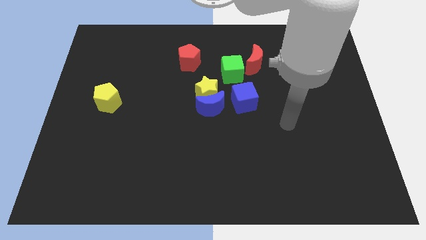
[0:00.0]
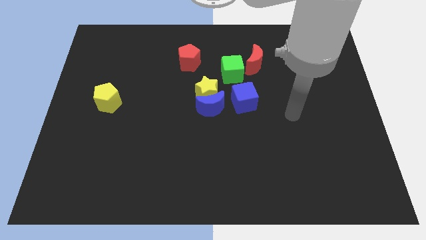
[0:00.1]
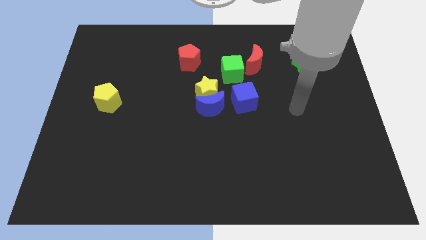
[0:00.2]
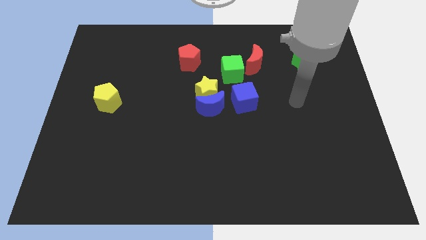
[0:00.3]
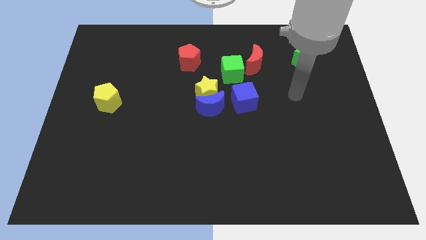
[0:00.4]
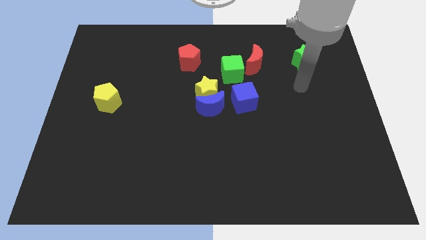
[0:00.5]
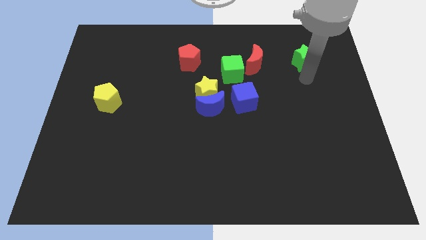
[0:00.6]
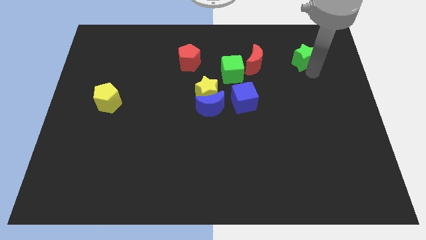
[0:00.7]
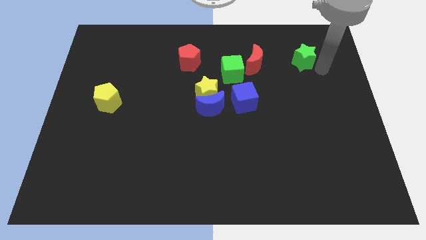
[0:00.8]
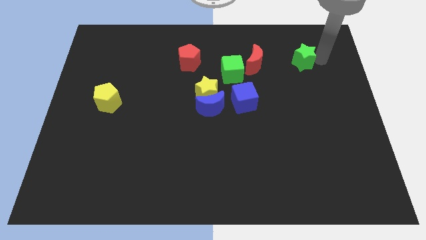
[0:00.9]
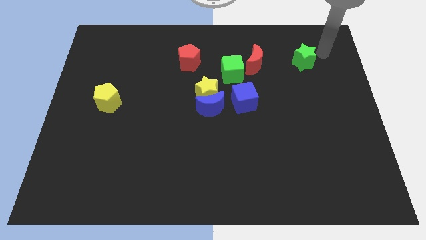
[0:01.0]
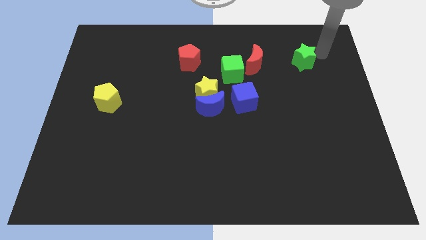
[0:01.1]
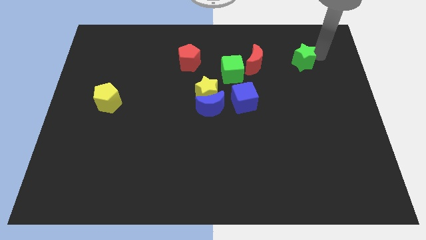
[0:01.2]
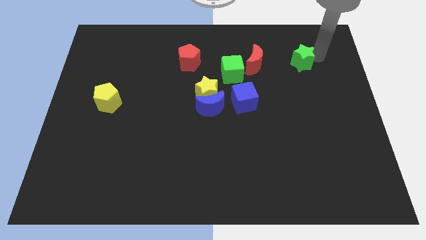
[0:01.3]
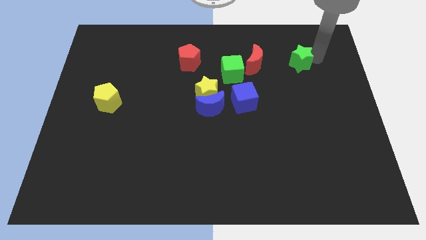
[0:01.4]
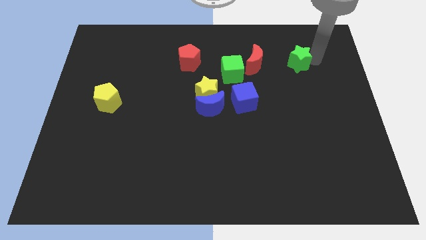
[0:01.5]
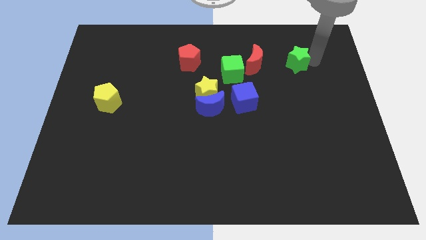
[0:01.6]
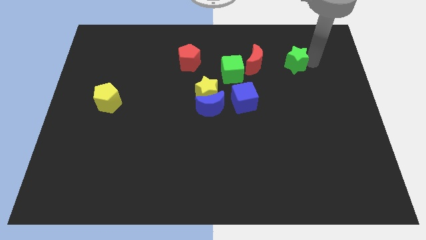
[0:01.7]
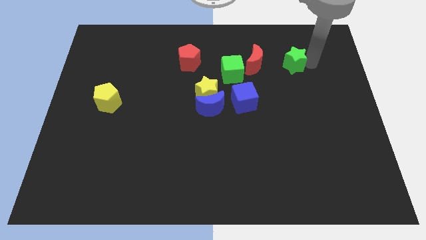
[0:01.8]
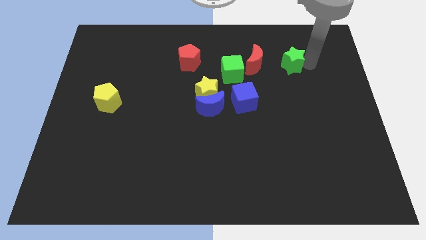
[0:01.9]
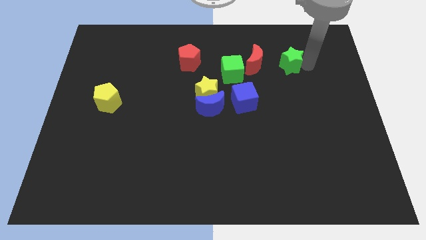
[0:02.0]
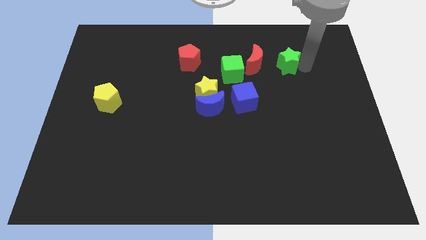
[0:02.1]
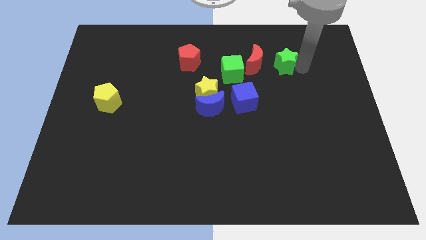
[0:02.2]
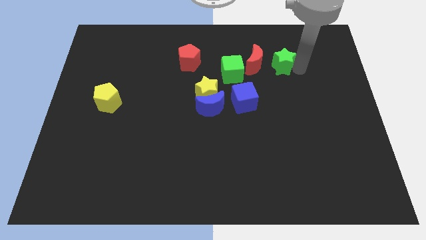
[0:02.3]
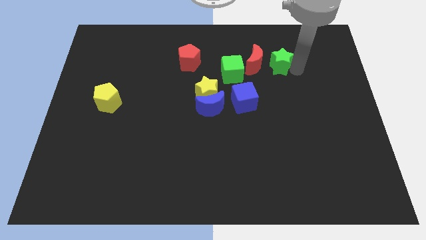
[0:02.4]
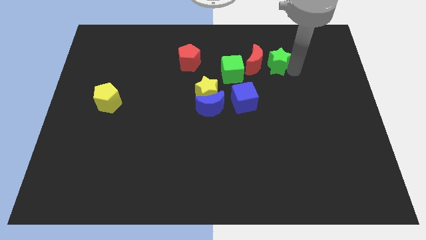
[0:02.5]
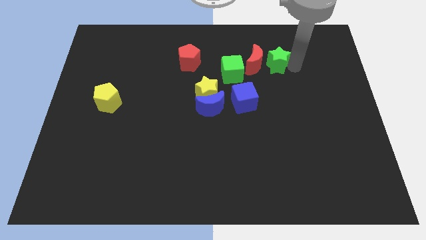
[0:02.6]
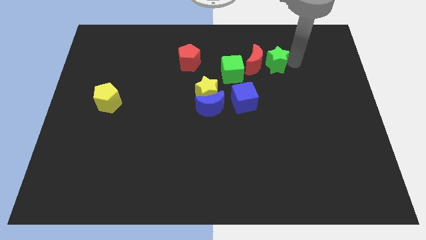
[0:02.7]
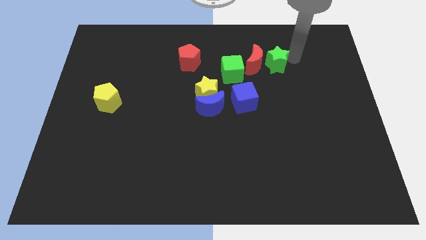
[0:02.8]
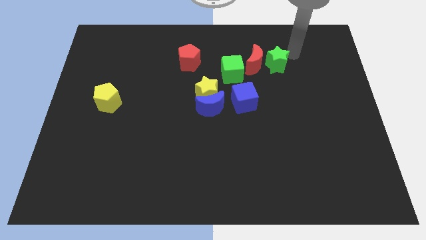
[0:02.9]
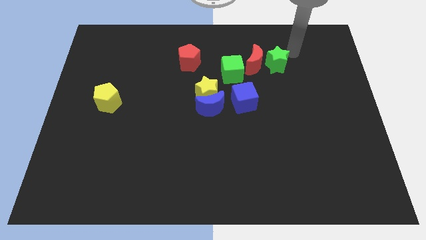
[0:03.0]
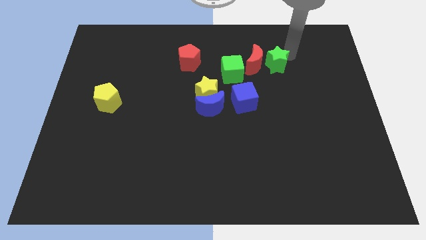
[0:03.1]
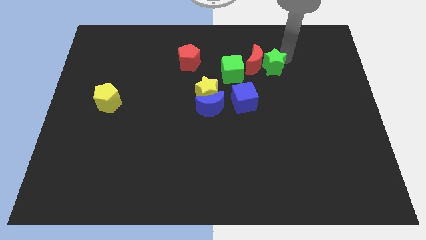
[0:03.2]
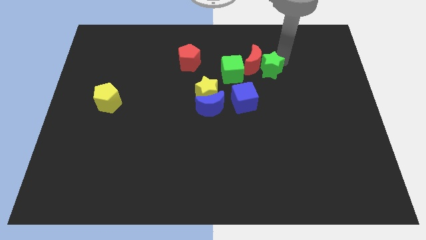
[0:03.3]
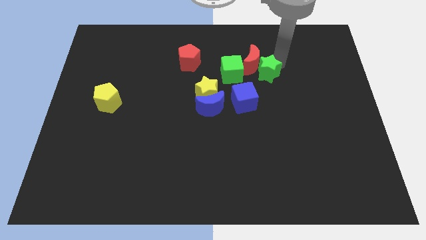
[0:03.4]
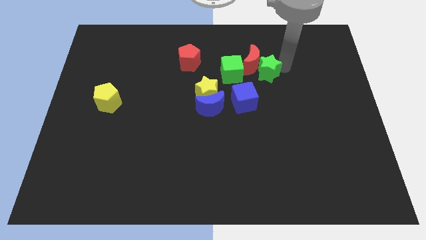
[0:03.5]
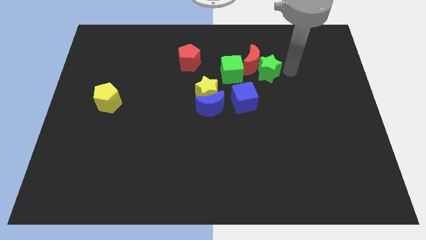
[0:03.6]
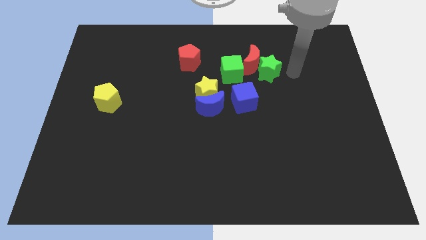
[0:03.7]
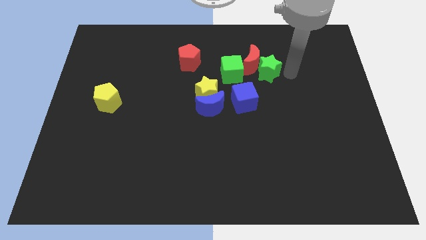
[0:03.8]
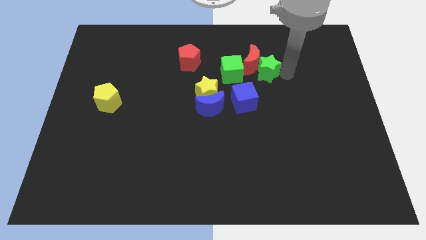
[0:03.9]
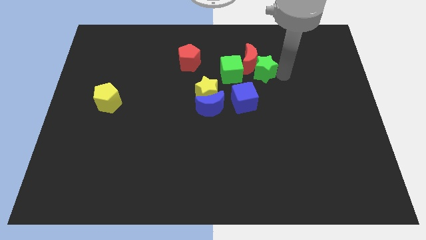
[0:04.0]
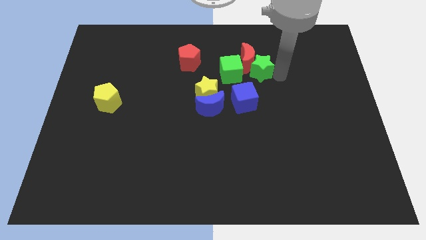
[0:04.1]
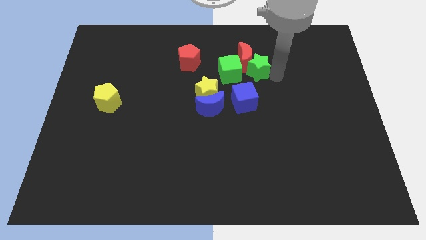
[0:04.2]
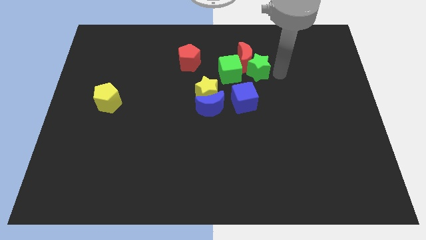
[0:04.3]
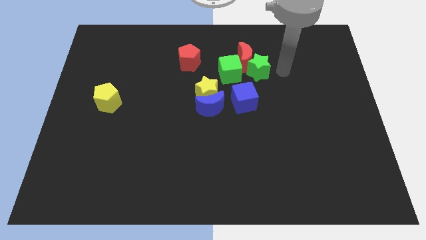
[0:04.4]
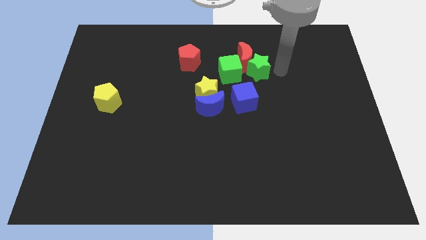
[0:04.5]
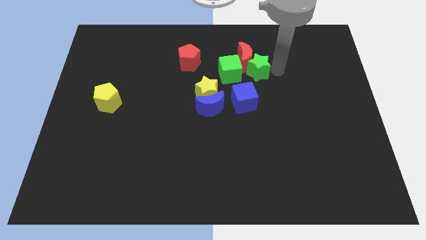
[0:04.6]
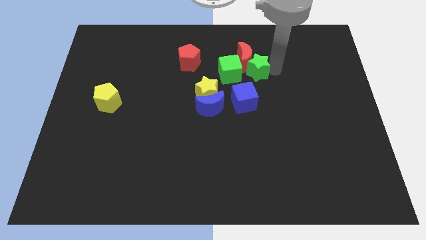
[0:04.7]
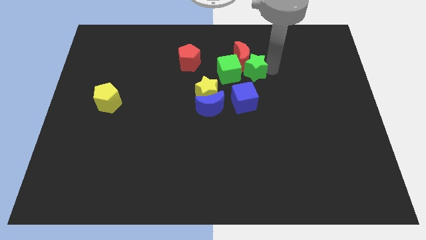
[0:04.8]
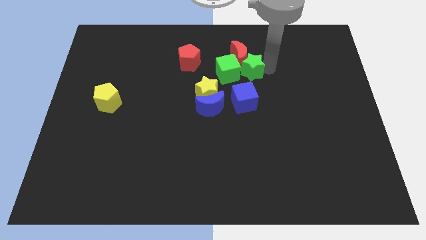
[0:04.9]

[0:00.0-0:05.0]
move the green star to the green cube

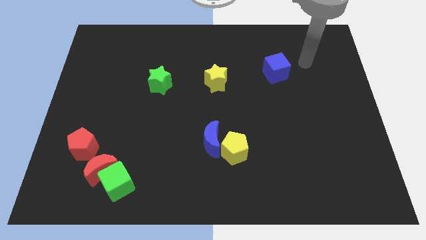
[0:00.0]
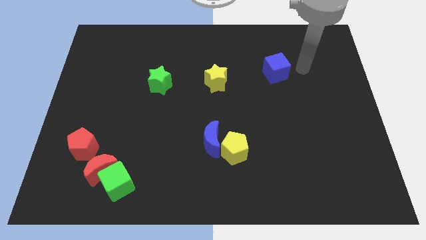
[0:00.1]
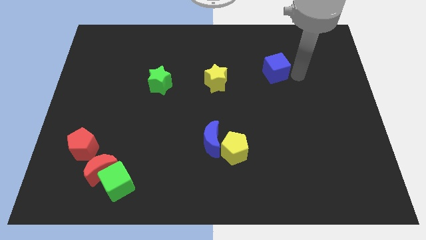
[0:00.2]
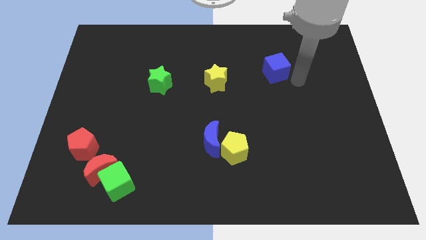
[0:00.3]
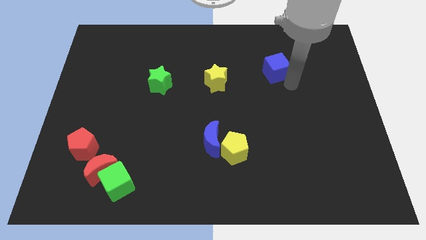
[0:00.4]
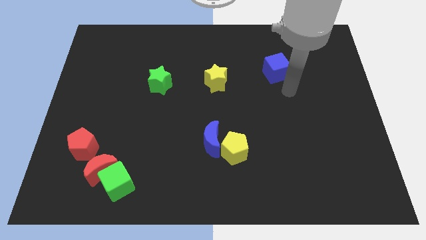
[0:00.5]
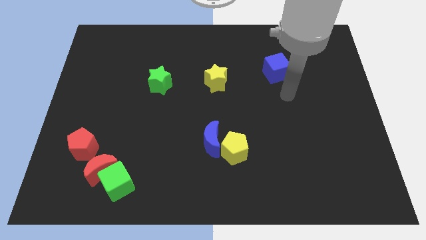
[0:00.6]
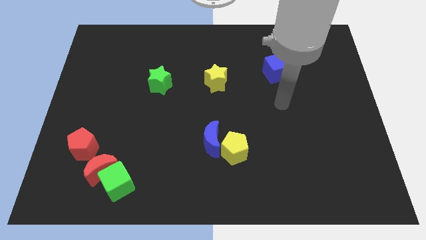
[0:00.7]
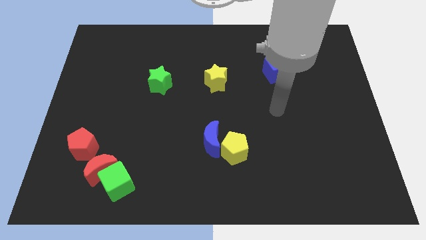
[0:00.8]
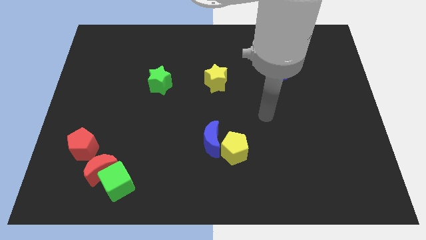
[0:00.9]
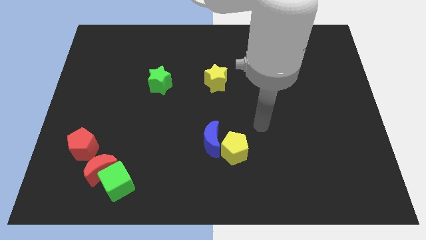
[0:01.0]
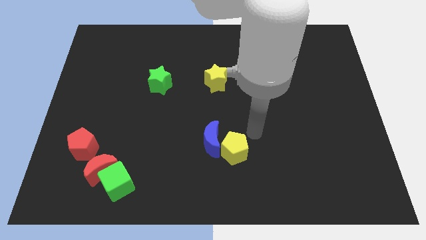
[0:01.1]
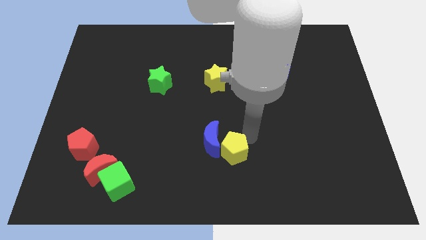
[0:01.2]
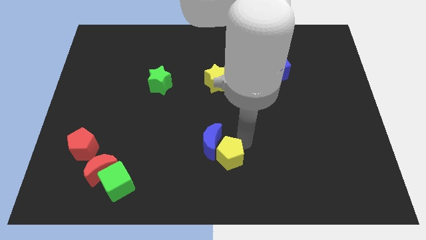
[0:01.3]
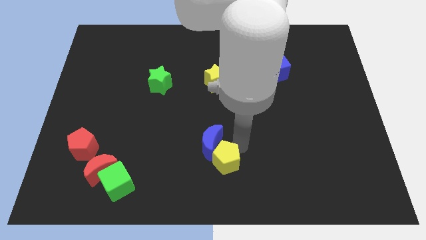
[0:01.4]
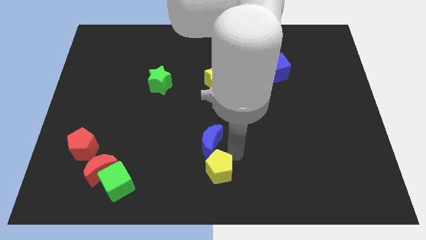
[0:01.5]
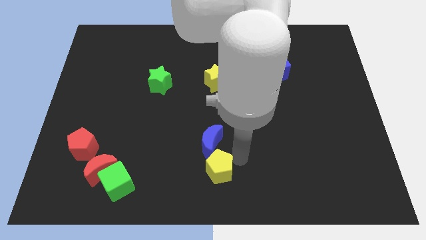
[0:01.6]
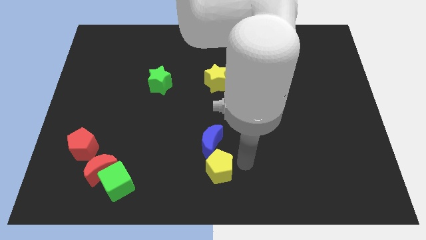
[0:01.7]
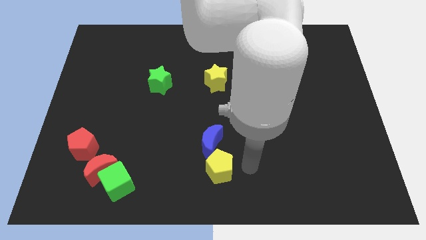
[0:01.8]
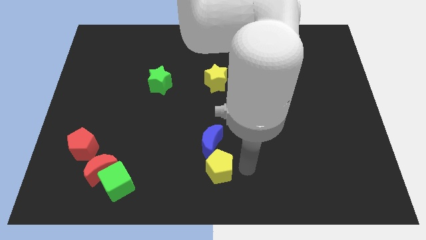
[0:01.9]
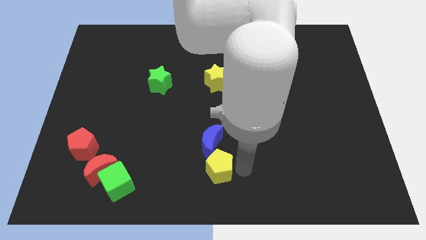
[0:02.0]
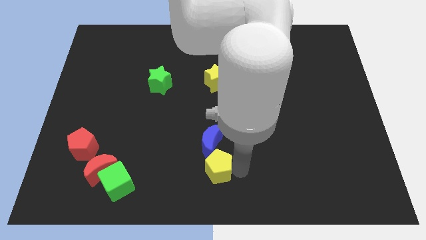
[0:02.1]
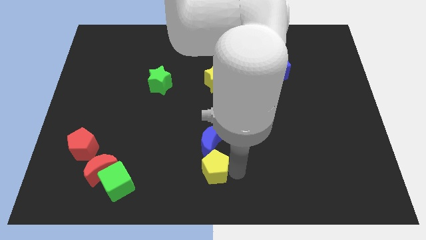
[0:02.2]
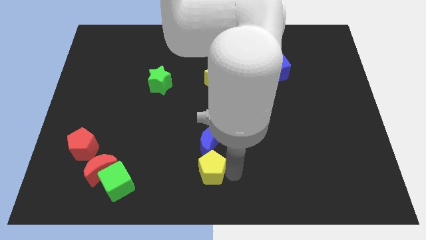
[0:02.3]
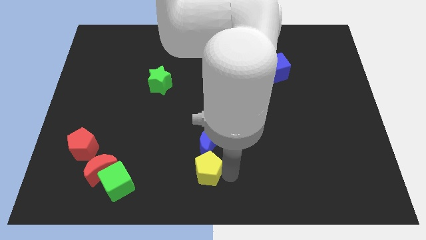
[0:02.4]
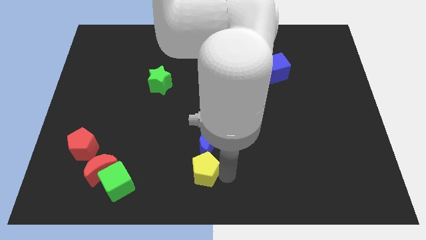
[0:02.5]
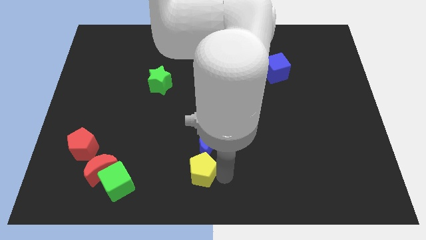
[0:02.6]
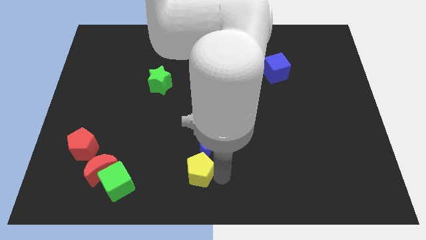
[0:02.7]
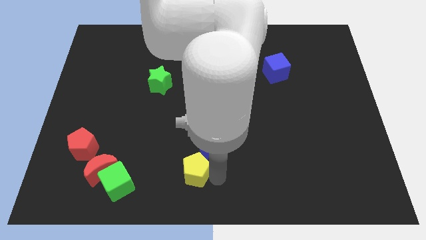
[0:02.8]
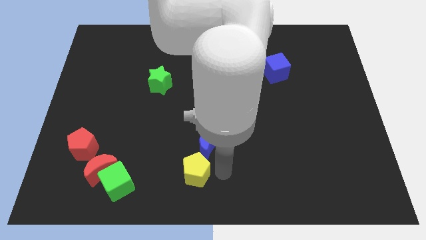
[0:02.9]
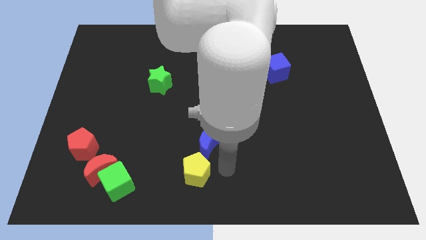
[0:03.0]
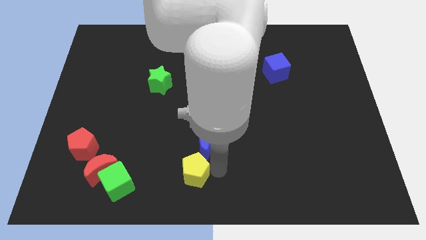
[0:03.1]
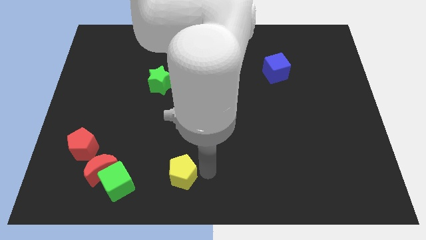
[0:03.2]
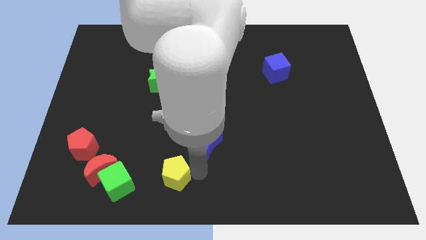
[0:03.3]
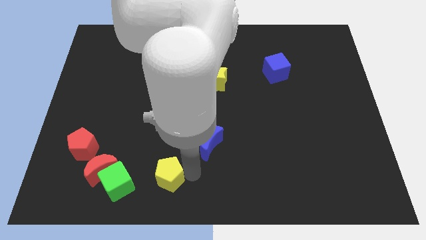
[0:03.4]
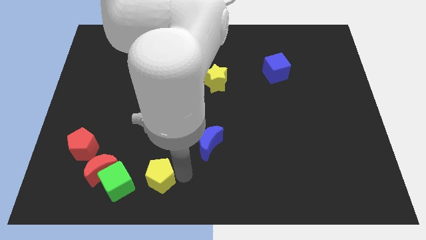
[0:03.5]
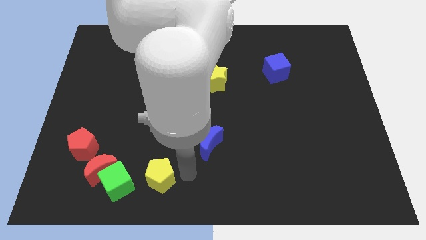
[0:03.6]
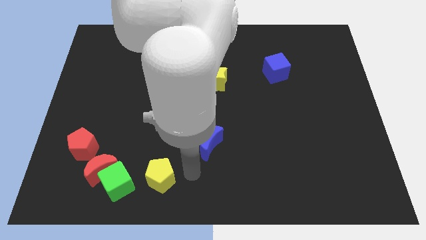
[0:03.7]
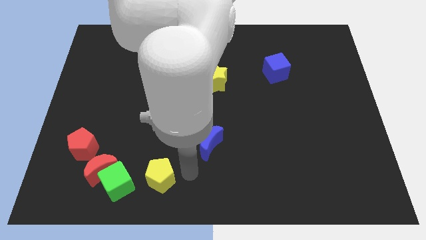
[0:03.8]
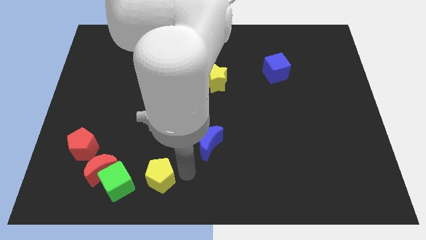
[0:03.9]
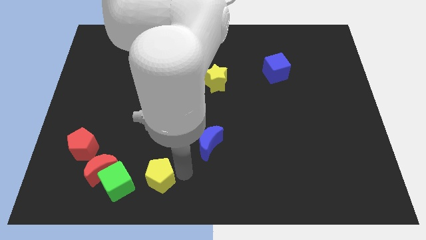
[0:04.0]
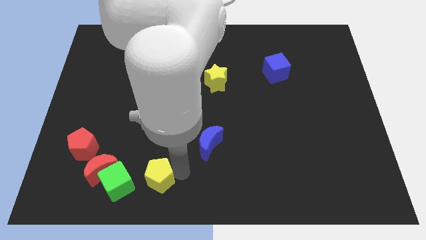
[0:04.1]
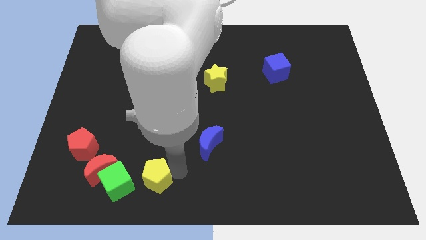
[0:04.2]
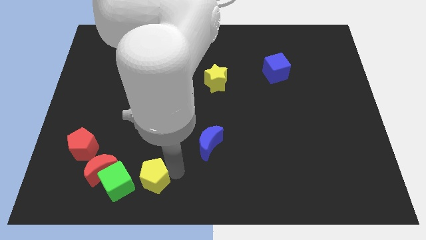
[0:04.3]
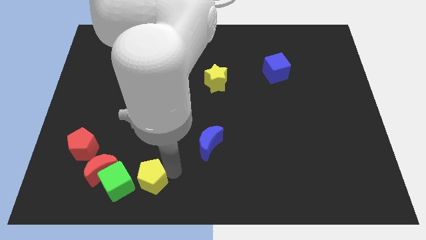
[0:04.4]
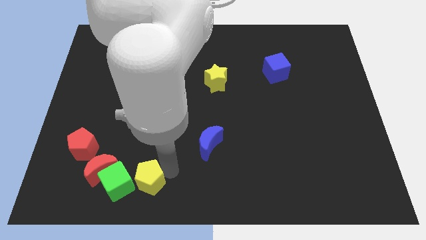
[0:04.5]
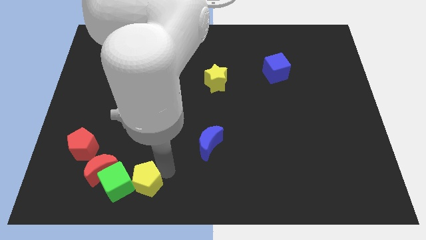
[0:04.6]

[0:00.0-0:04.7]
slide the yellow pentagon close to the green cube
